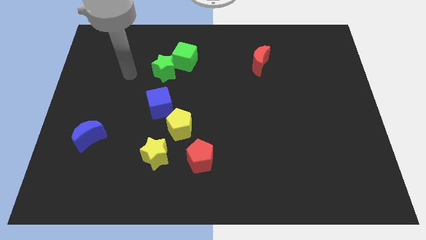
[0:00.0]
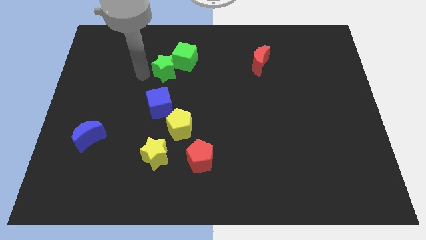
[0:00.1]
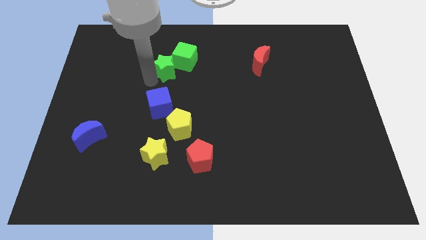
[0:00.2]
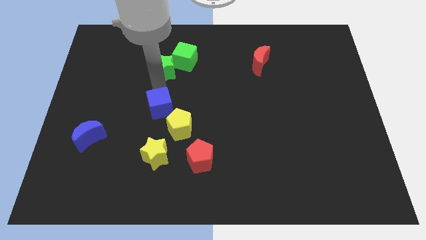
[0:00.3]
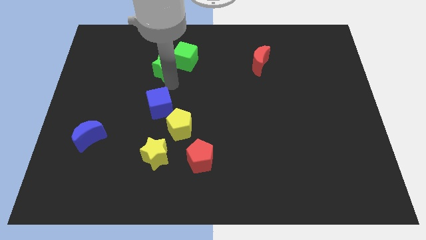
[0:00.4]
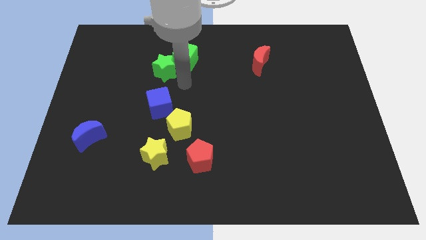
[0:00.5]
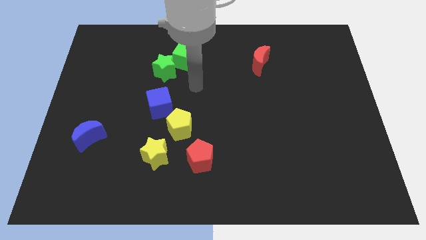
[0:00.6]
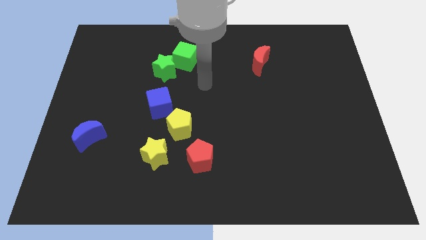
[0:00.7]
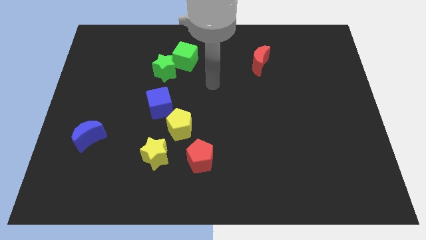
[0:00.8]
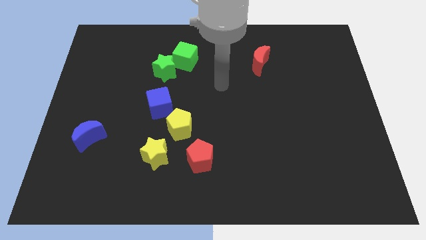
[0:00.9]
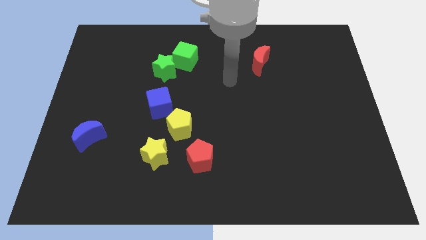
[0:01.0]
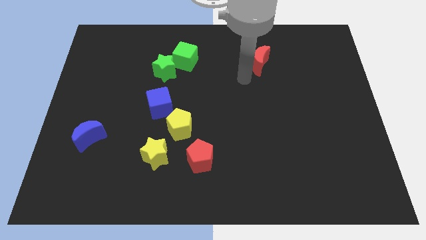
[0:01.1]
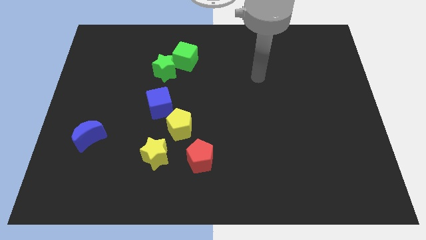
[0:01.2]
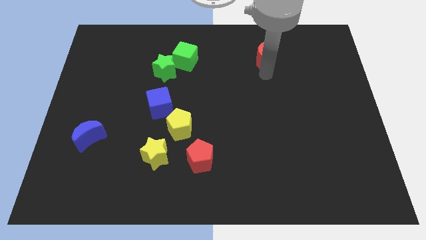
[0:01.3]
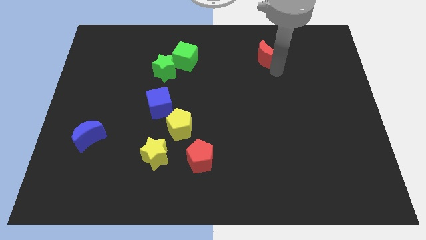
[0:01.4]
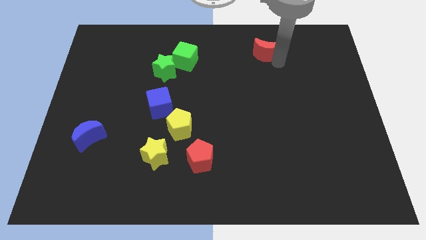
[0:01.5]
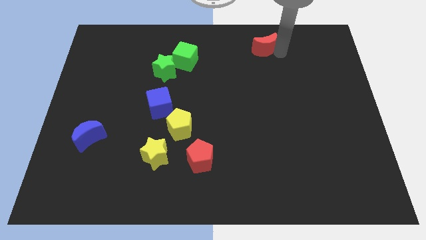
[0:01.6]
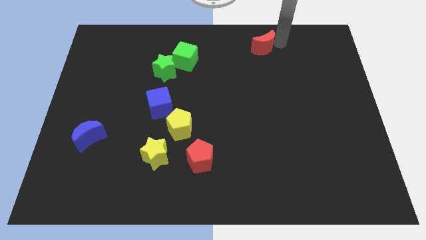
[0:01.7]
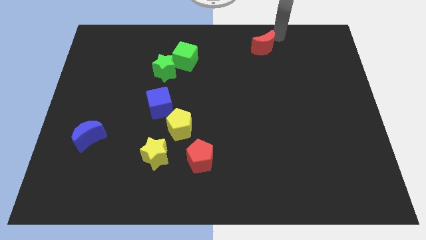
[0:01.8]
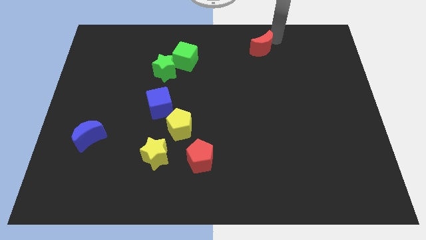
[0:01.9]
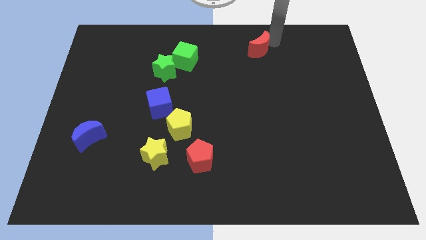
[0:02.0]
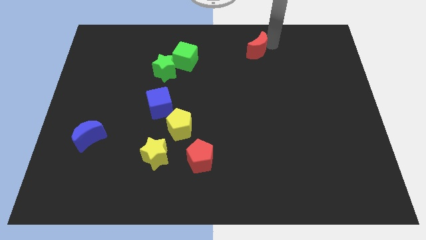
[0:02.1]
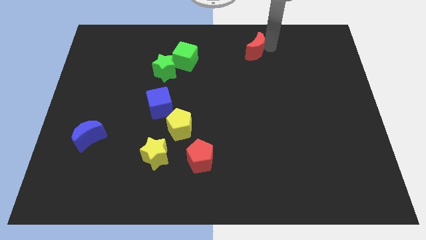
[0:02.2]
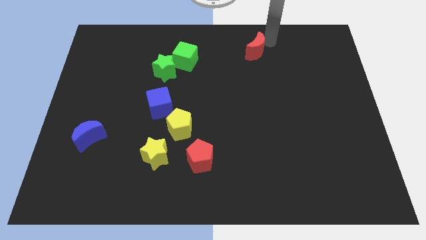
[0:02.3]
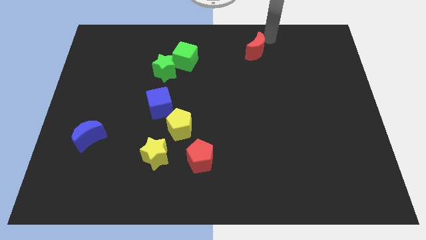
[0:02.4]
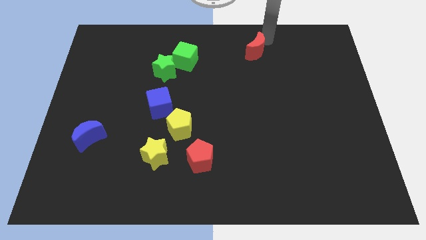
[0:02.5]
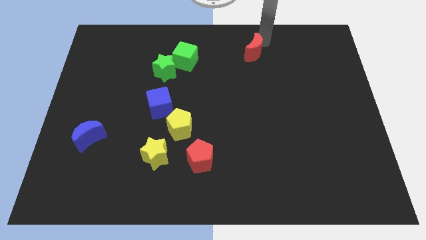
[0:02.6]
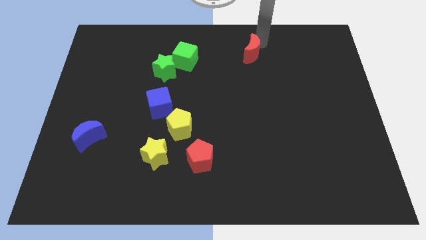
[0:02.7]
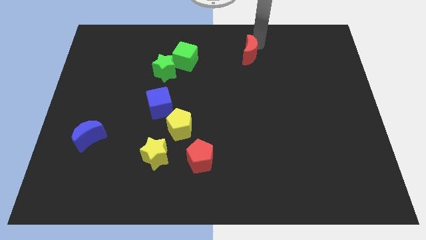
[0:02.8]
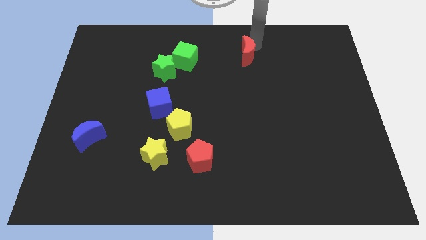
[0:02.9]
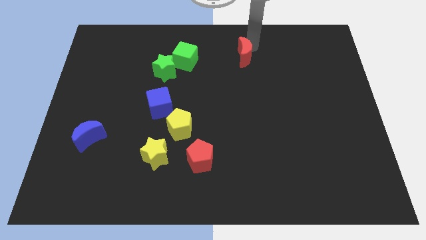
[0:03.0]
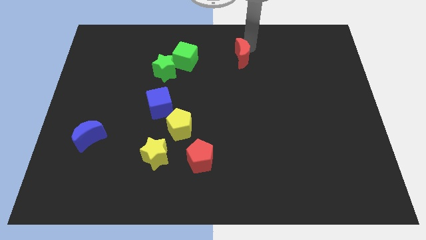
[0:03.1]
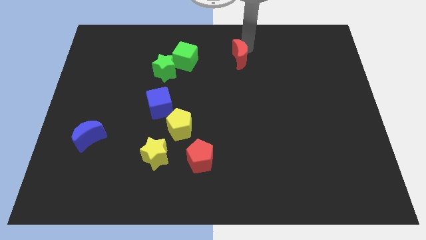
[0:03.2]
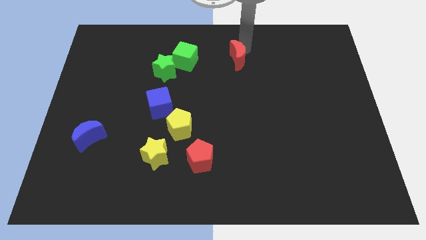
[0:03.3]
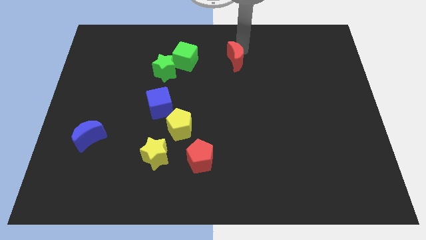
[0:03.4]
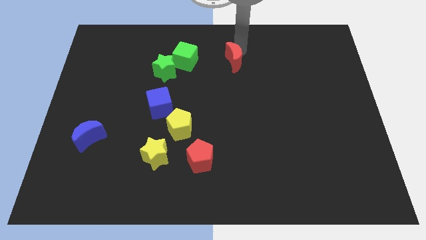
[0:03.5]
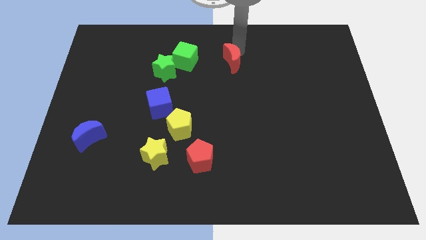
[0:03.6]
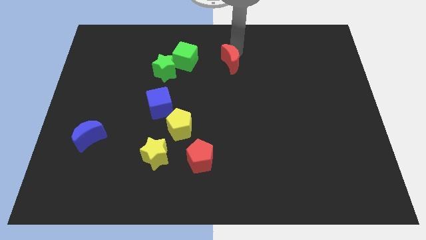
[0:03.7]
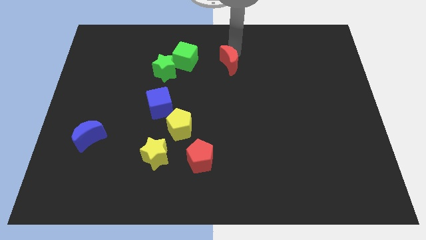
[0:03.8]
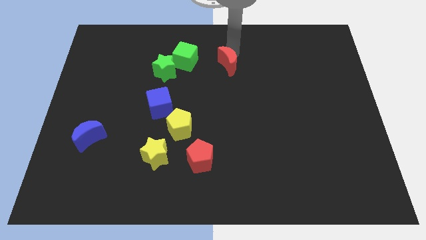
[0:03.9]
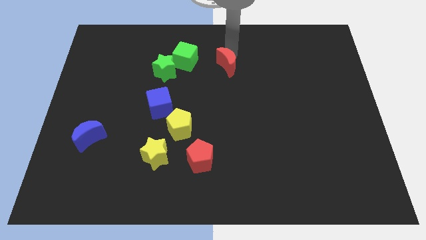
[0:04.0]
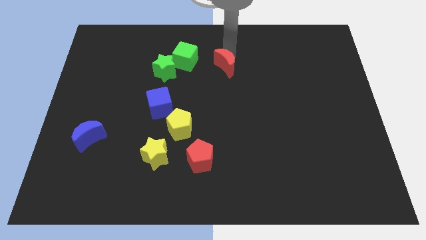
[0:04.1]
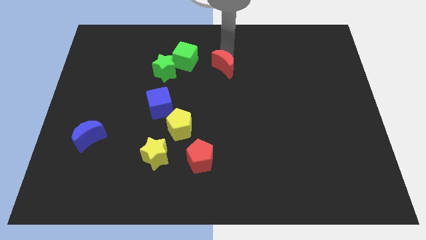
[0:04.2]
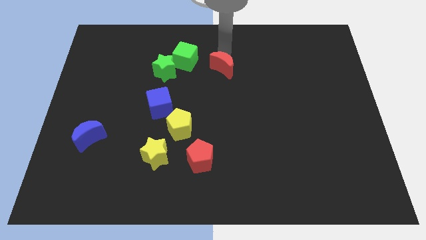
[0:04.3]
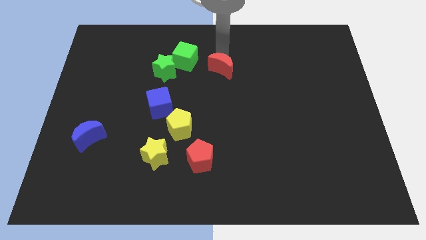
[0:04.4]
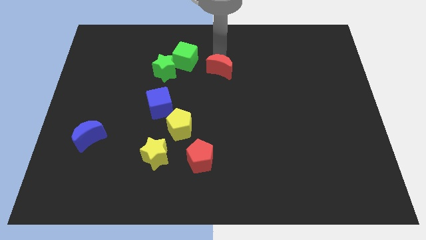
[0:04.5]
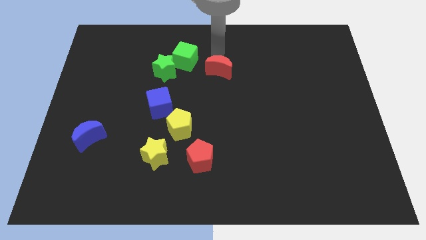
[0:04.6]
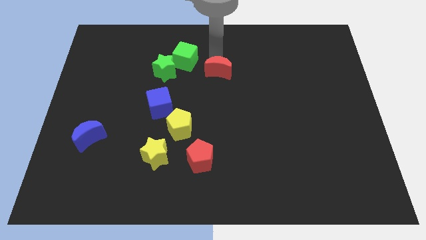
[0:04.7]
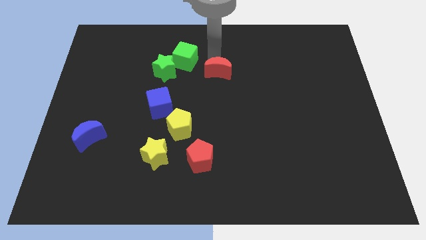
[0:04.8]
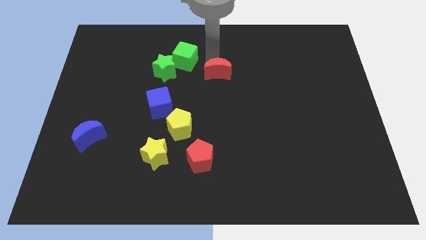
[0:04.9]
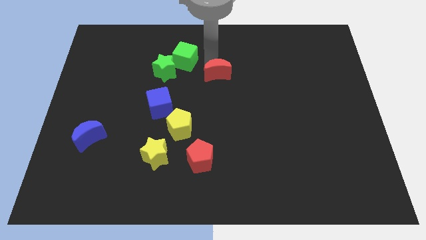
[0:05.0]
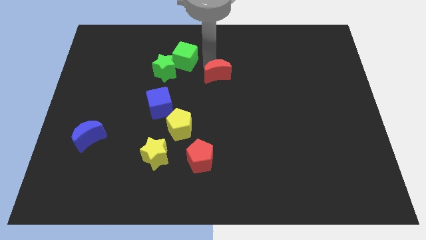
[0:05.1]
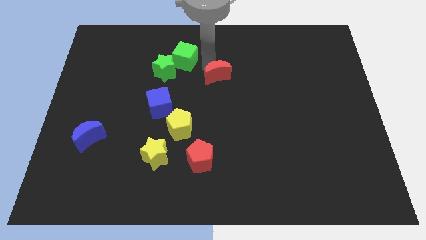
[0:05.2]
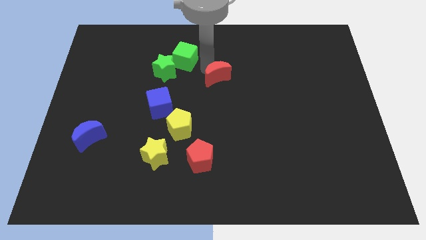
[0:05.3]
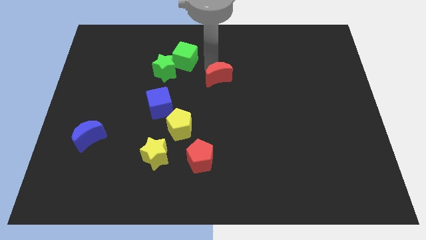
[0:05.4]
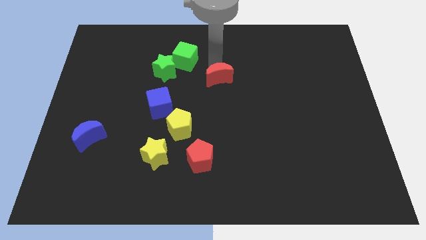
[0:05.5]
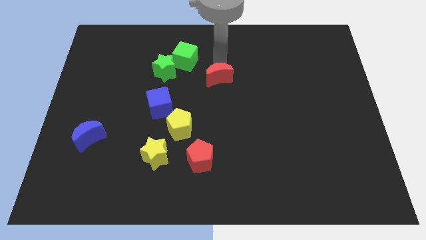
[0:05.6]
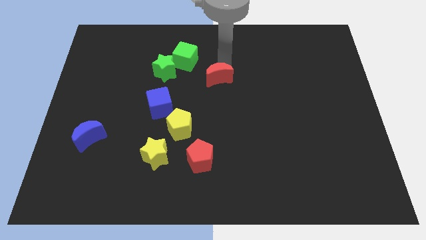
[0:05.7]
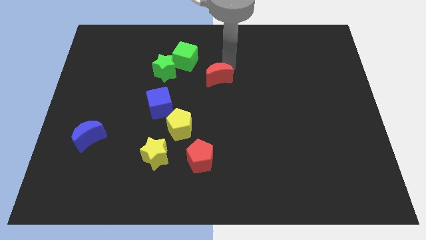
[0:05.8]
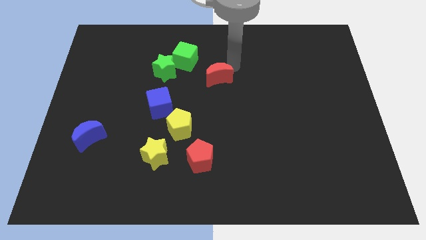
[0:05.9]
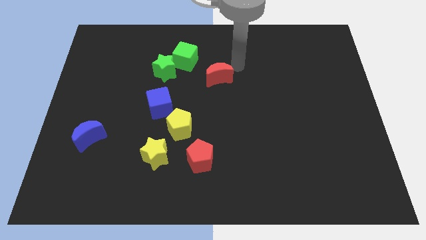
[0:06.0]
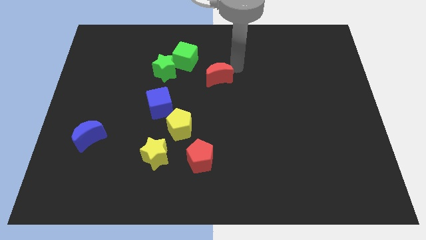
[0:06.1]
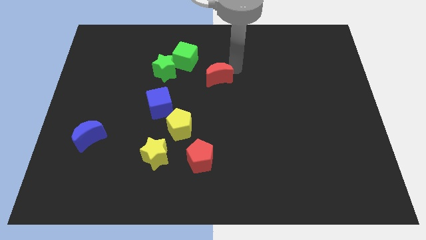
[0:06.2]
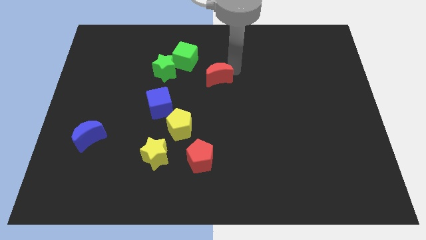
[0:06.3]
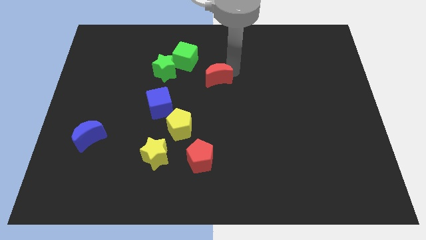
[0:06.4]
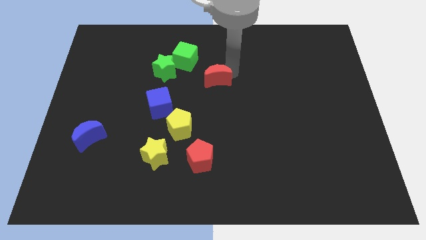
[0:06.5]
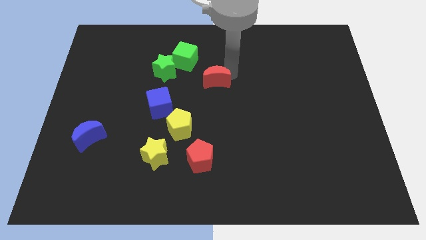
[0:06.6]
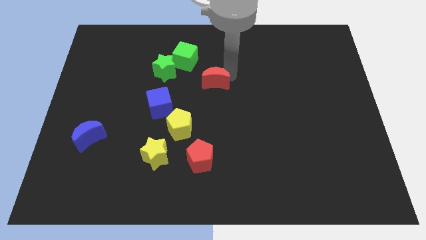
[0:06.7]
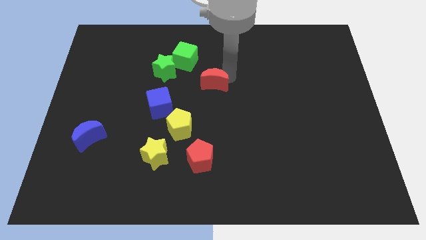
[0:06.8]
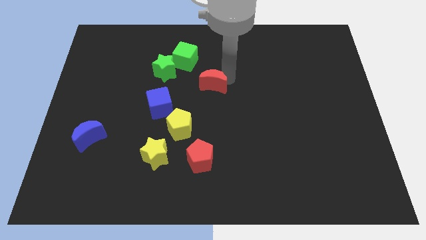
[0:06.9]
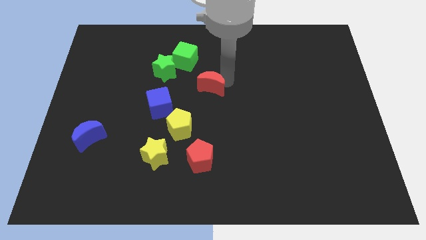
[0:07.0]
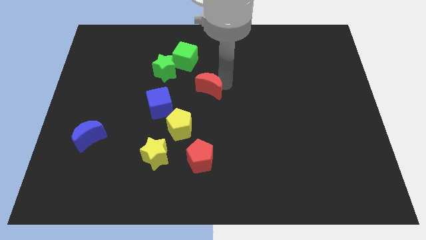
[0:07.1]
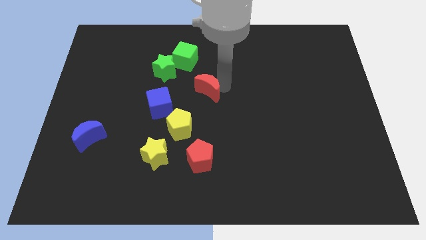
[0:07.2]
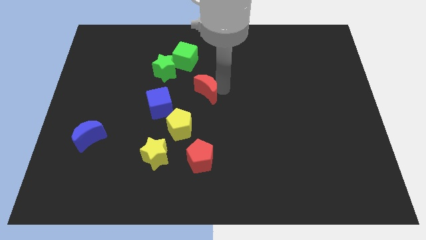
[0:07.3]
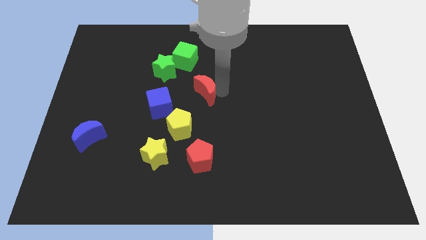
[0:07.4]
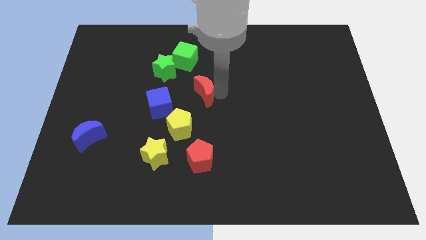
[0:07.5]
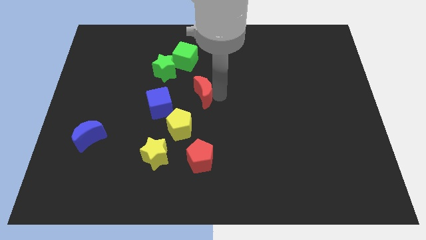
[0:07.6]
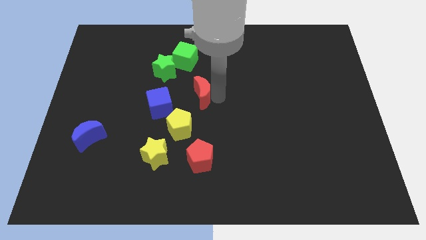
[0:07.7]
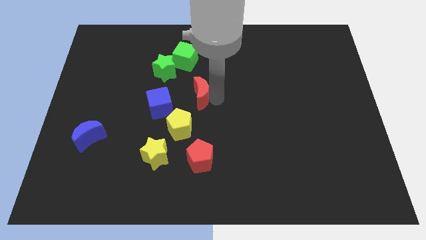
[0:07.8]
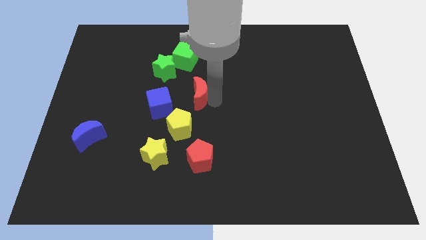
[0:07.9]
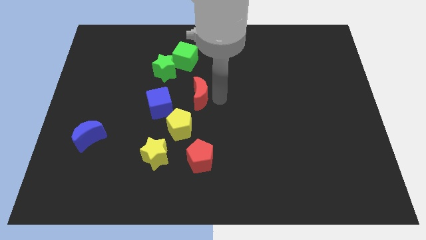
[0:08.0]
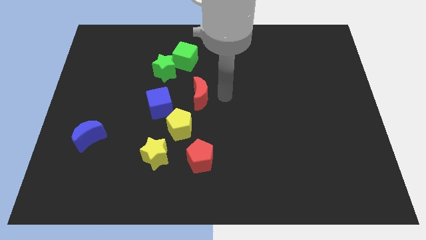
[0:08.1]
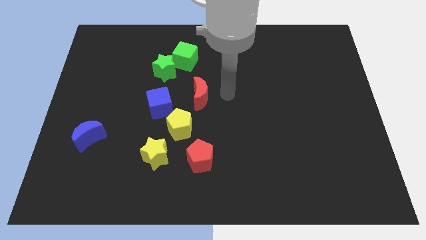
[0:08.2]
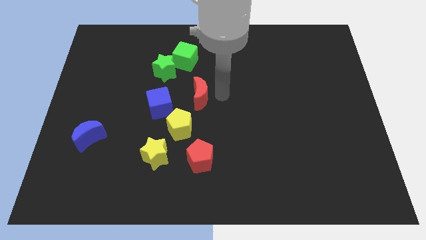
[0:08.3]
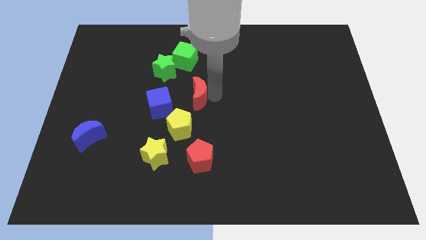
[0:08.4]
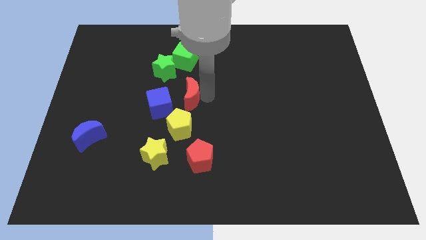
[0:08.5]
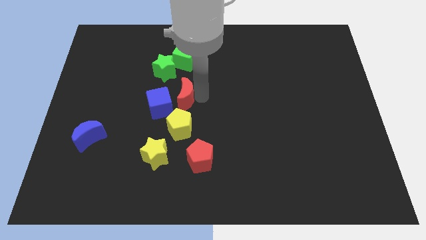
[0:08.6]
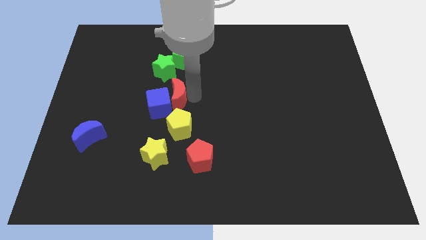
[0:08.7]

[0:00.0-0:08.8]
put the red moon to the blue cube
